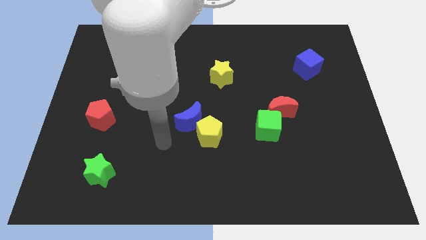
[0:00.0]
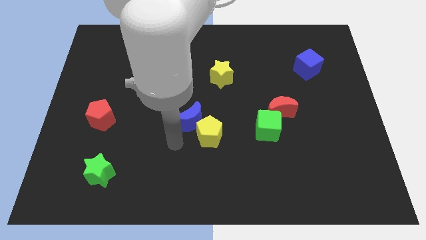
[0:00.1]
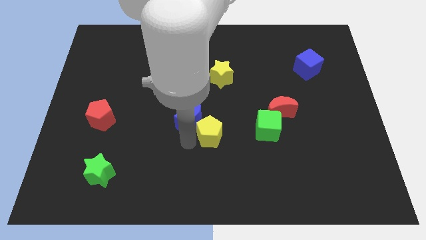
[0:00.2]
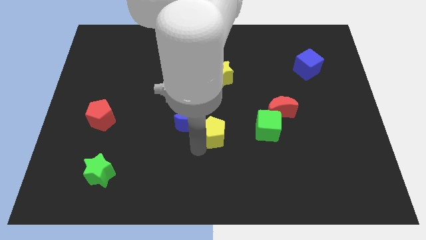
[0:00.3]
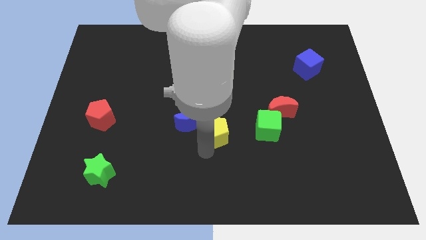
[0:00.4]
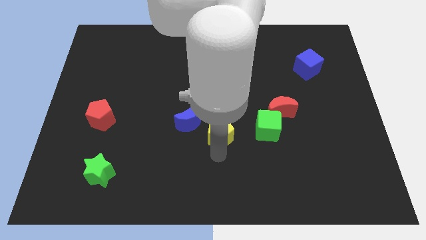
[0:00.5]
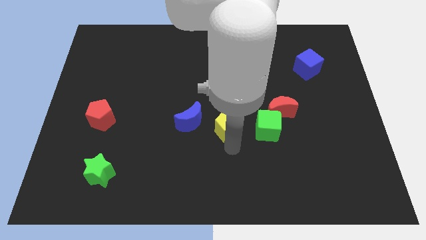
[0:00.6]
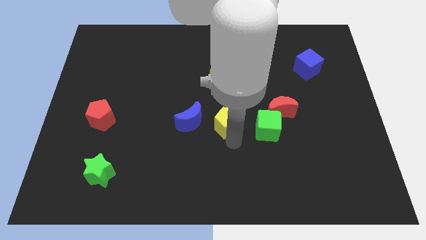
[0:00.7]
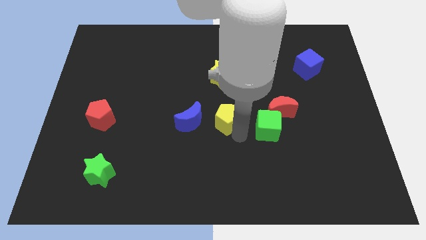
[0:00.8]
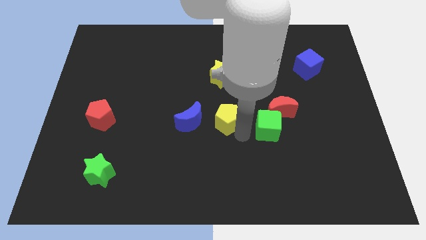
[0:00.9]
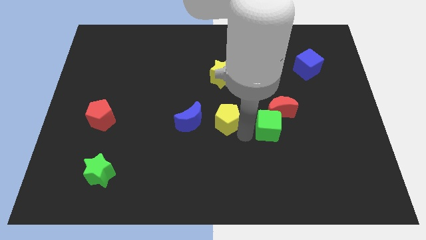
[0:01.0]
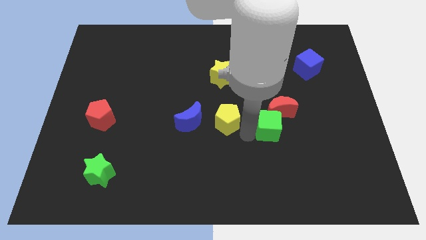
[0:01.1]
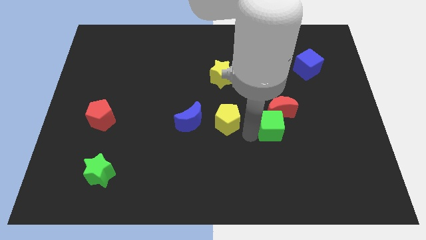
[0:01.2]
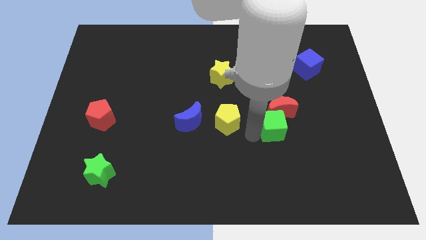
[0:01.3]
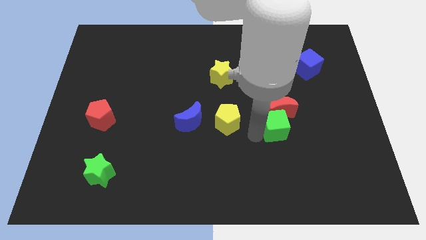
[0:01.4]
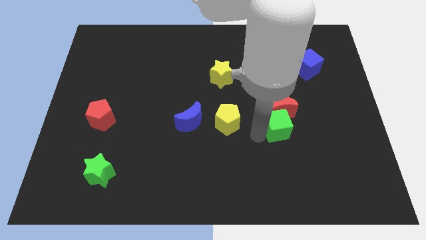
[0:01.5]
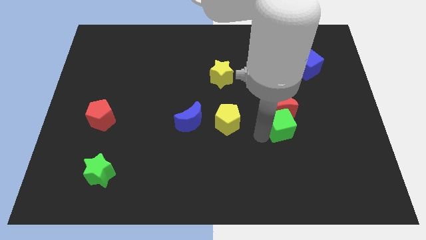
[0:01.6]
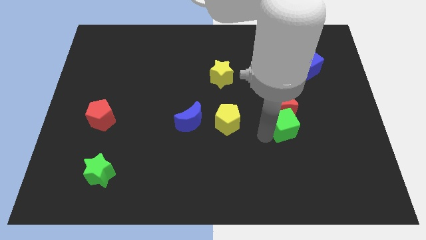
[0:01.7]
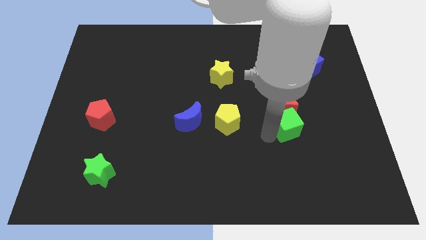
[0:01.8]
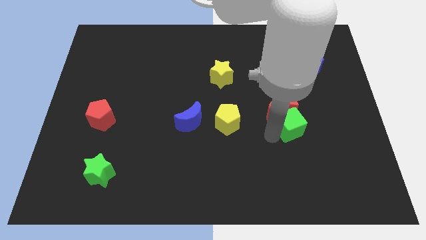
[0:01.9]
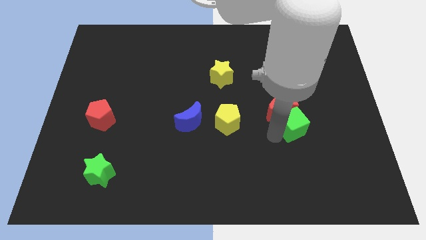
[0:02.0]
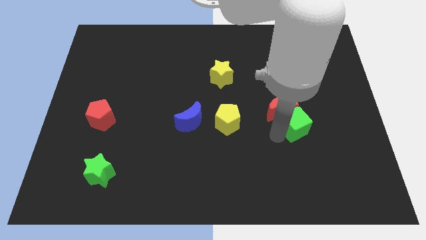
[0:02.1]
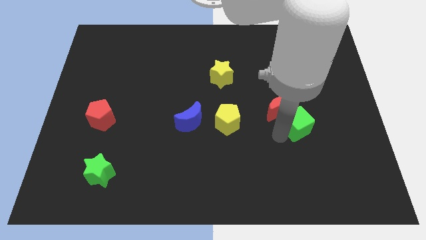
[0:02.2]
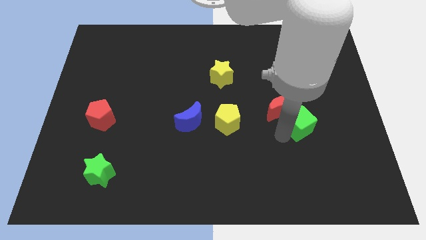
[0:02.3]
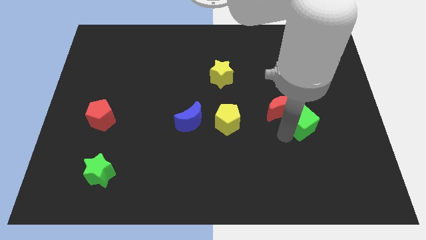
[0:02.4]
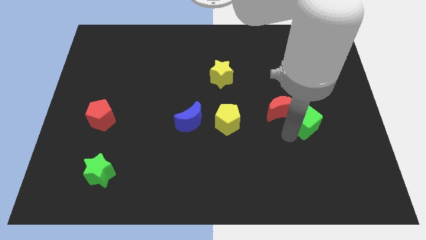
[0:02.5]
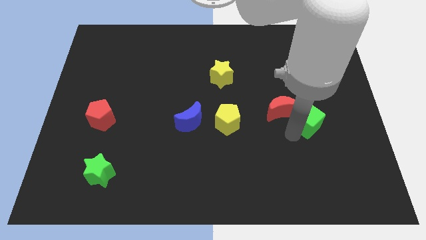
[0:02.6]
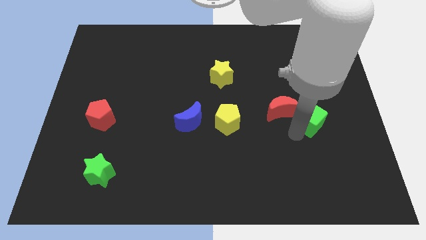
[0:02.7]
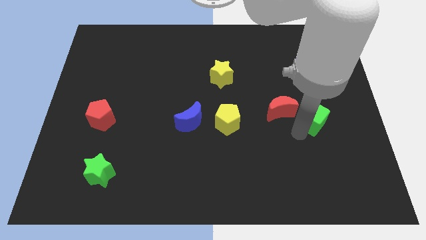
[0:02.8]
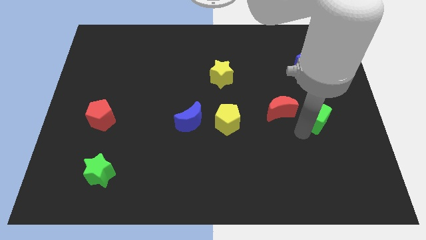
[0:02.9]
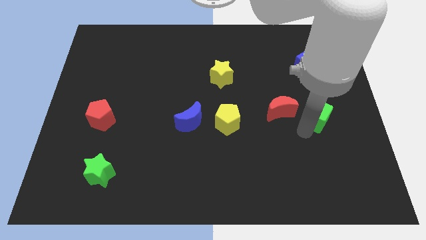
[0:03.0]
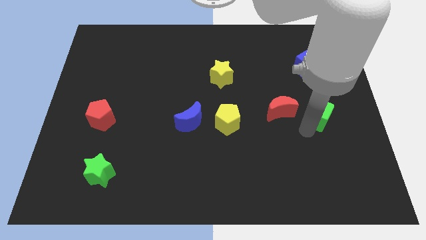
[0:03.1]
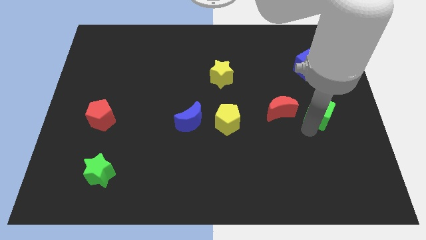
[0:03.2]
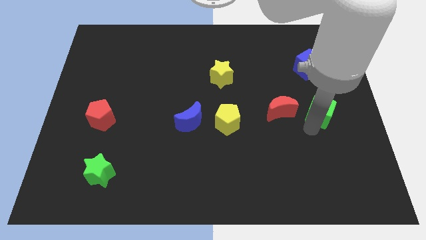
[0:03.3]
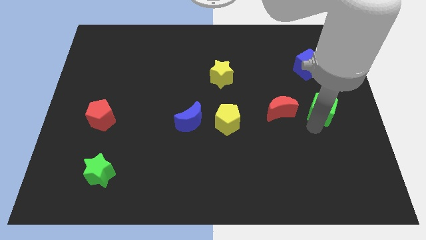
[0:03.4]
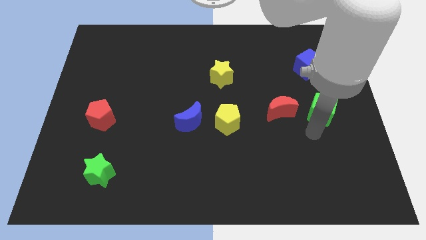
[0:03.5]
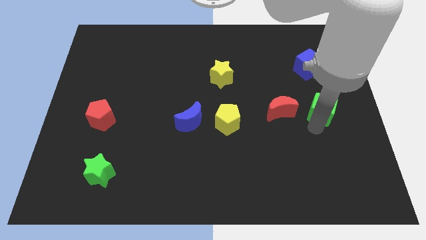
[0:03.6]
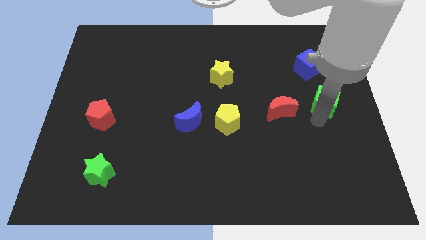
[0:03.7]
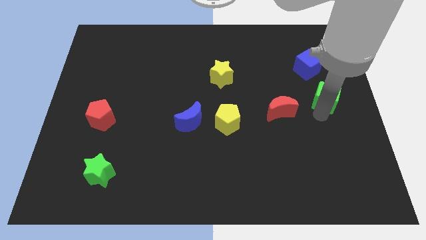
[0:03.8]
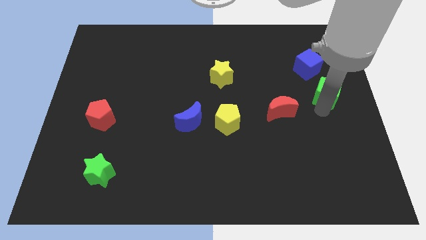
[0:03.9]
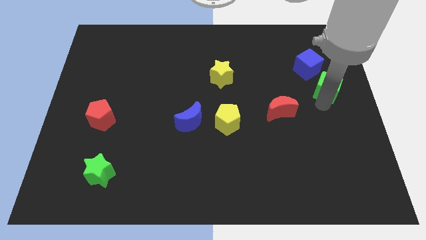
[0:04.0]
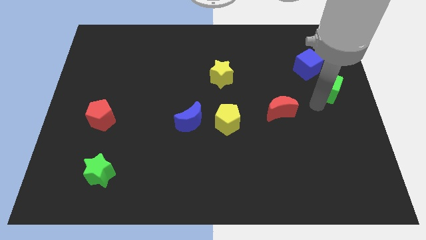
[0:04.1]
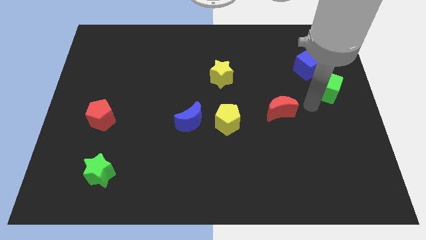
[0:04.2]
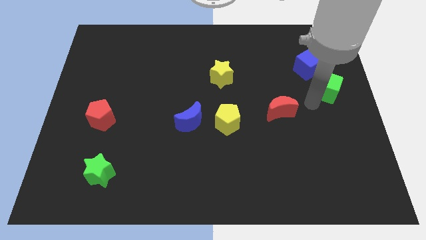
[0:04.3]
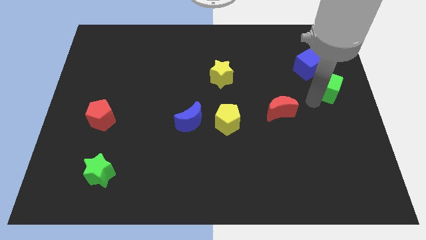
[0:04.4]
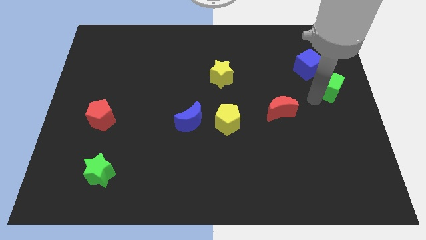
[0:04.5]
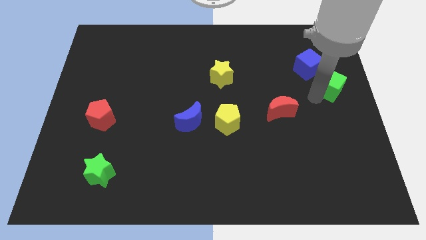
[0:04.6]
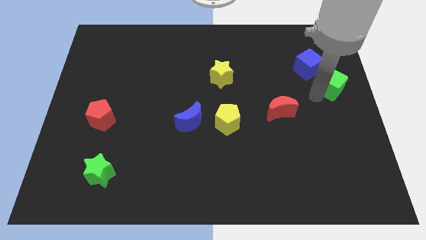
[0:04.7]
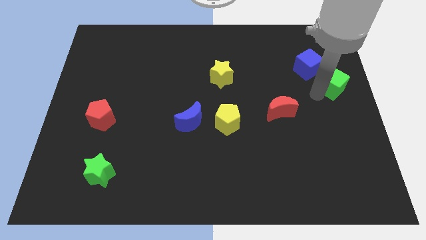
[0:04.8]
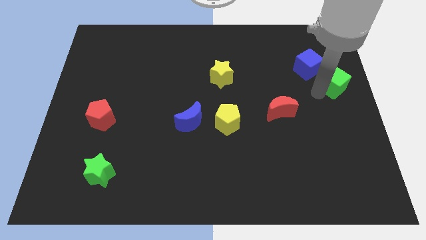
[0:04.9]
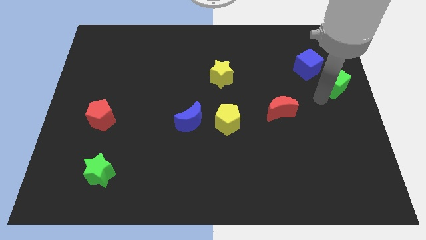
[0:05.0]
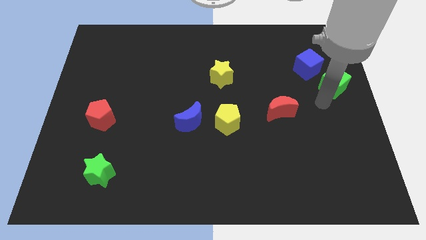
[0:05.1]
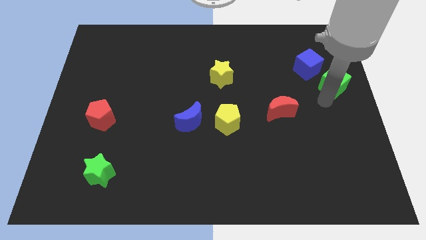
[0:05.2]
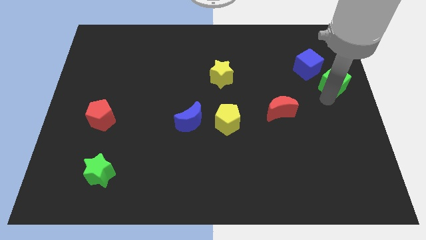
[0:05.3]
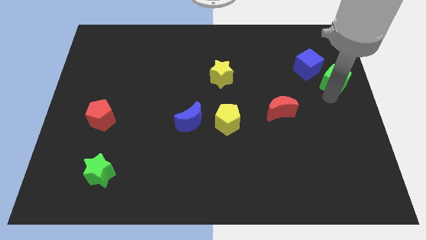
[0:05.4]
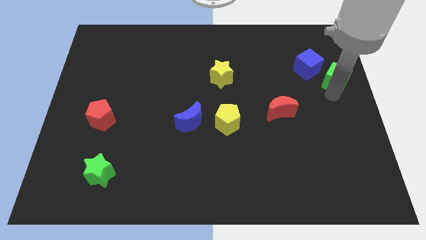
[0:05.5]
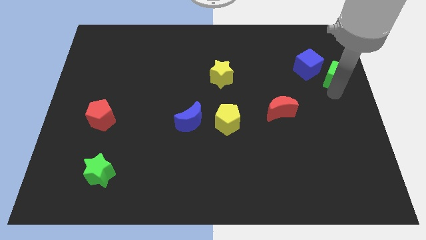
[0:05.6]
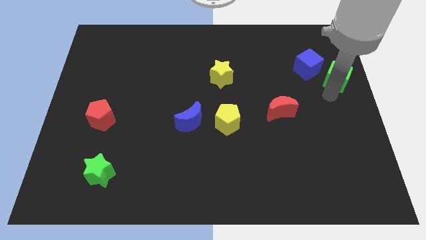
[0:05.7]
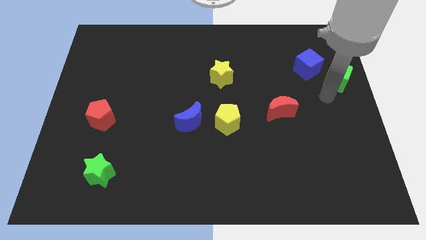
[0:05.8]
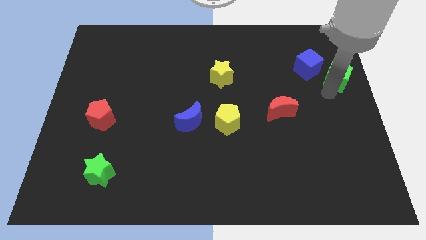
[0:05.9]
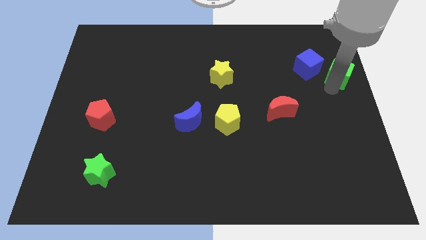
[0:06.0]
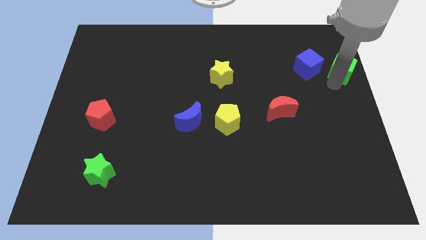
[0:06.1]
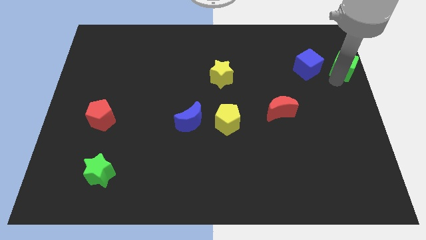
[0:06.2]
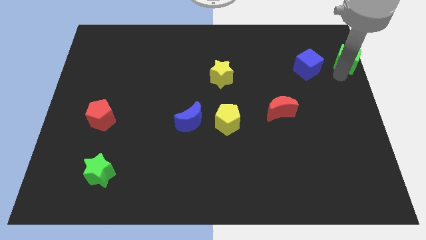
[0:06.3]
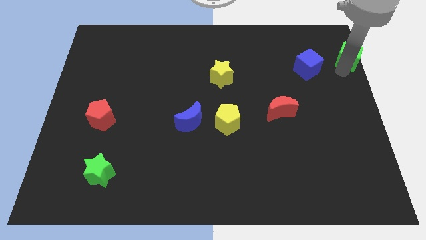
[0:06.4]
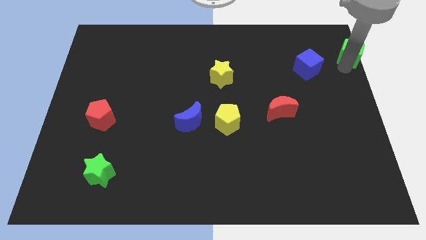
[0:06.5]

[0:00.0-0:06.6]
slide the green cube to the top right corner
